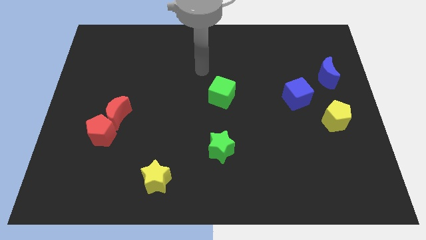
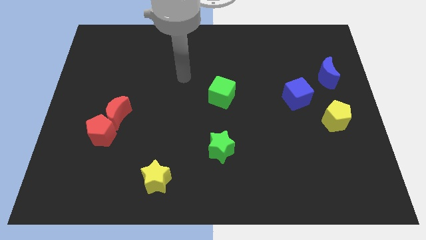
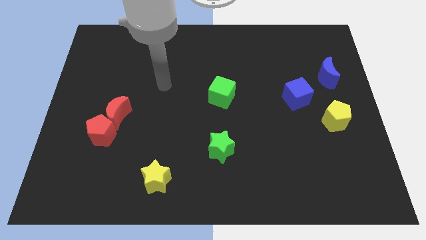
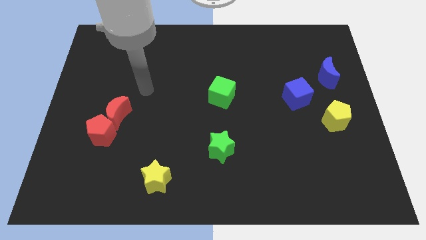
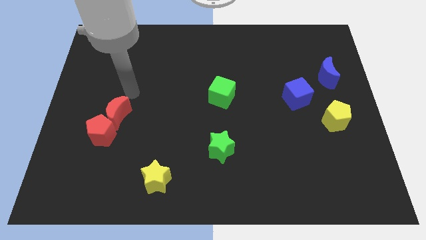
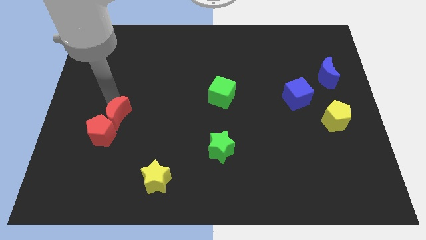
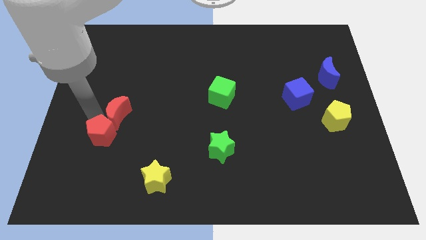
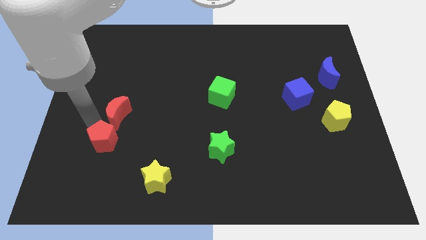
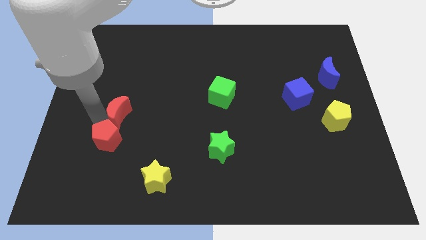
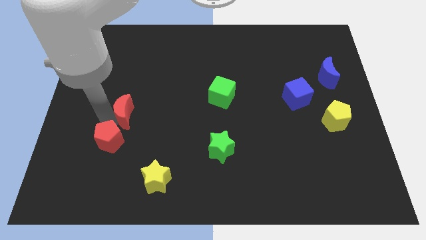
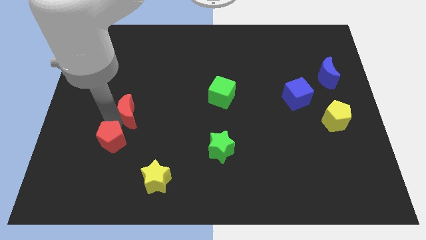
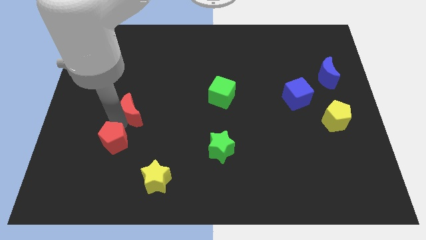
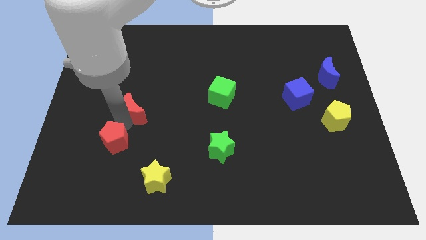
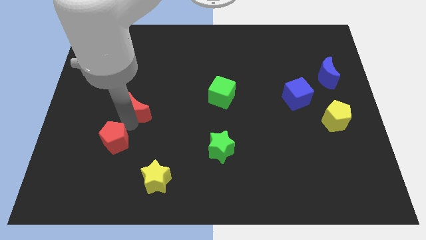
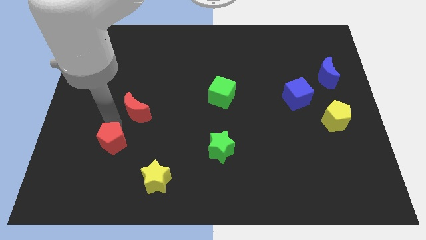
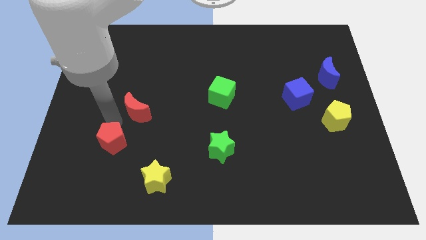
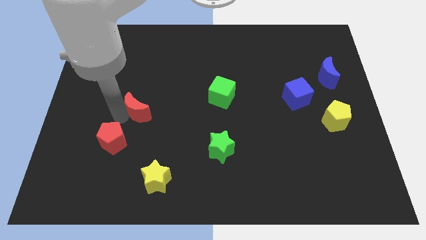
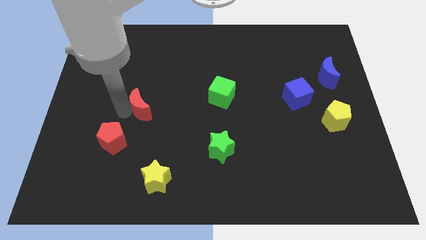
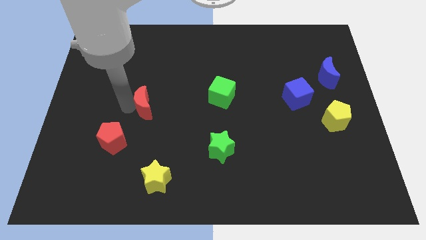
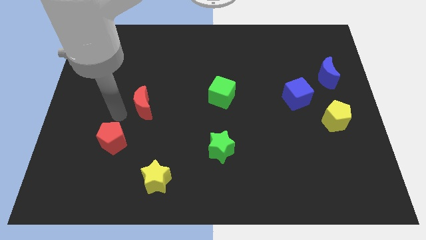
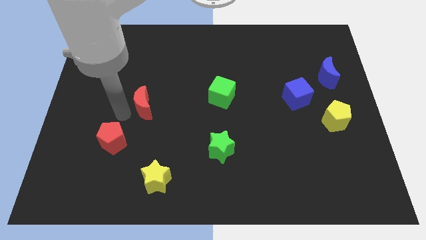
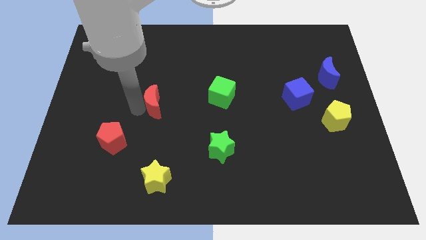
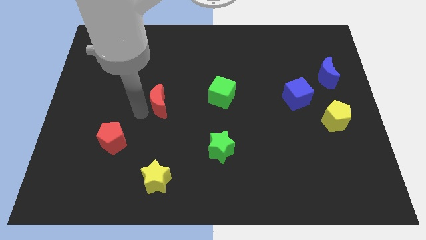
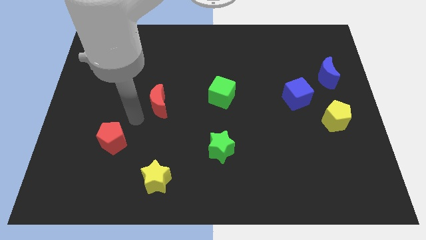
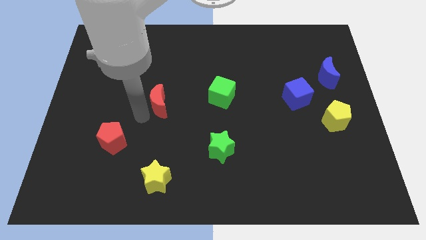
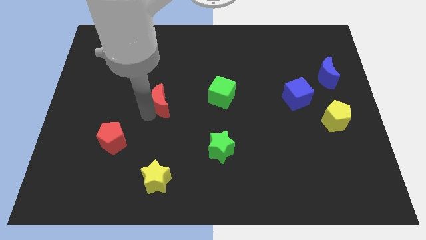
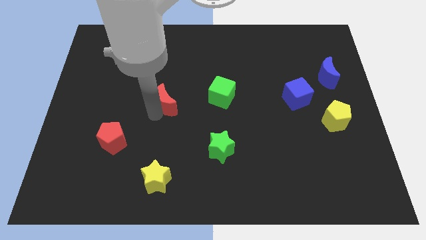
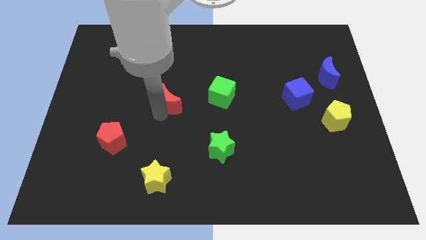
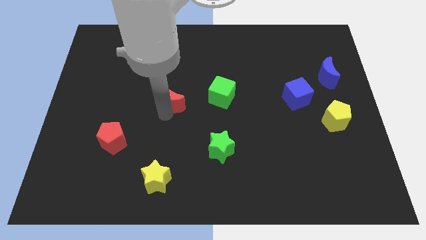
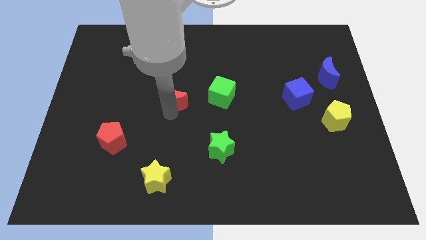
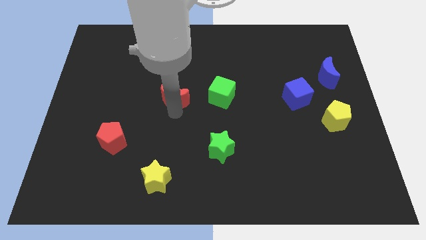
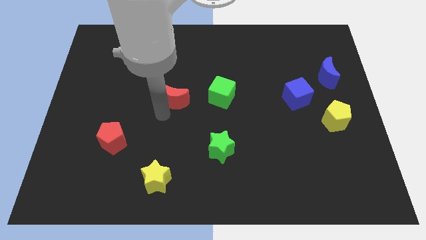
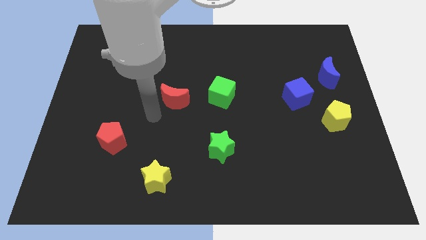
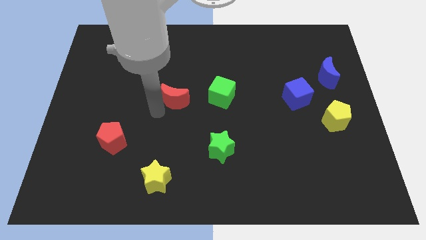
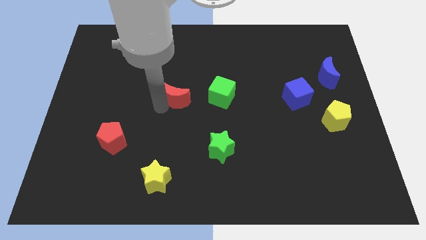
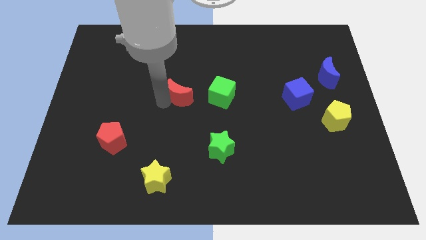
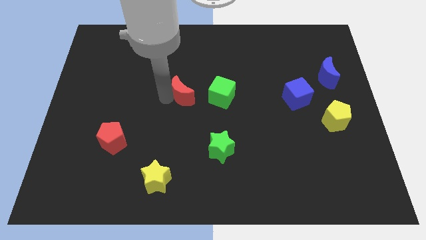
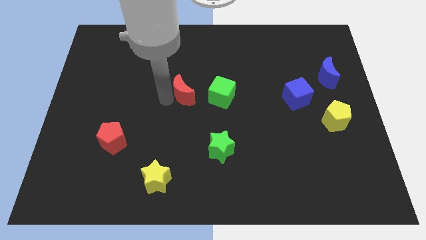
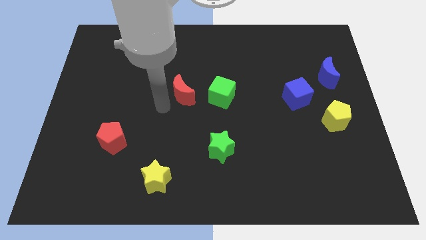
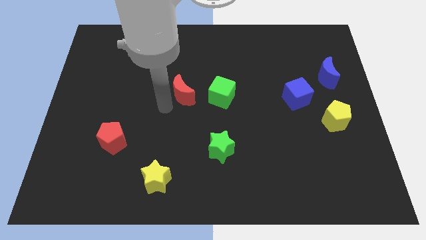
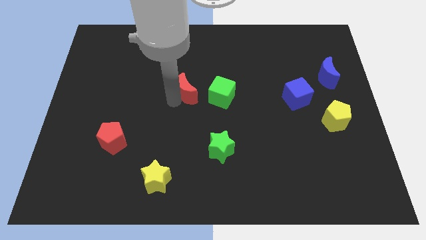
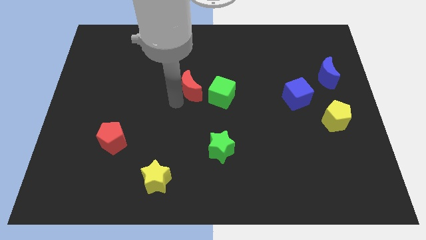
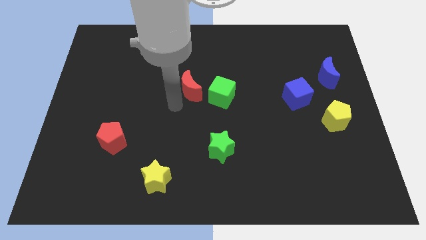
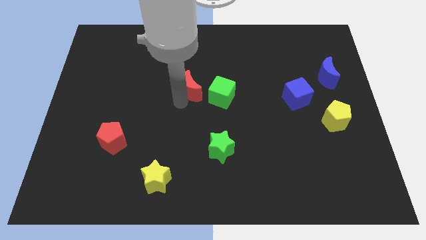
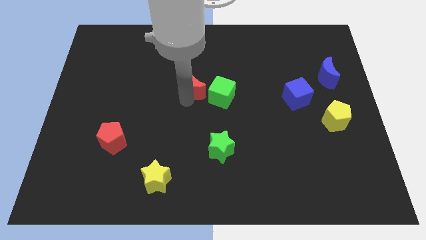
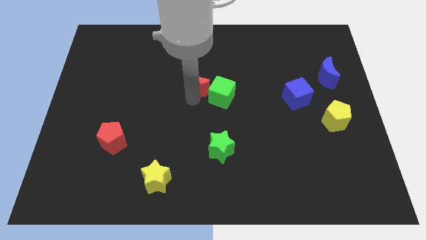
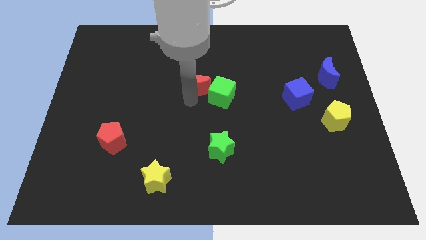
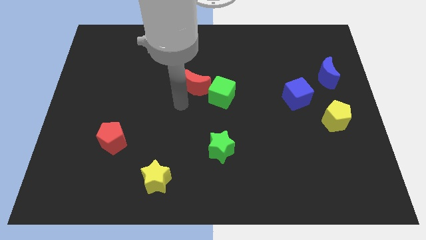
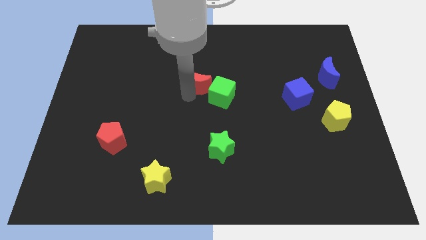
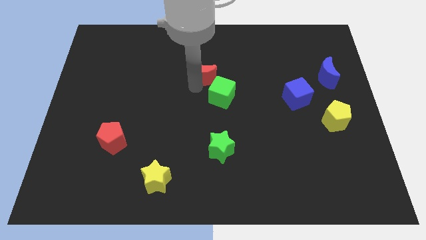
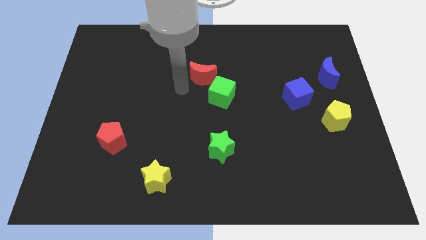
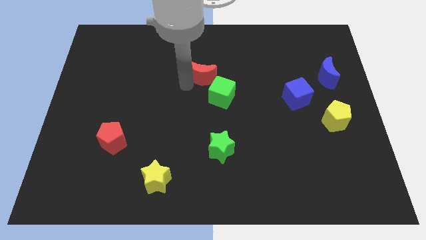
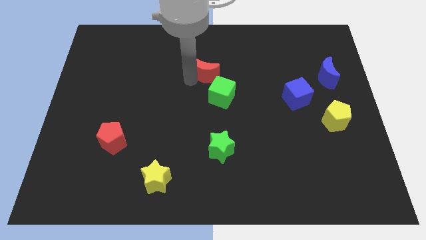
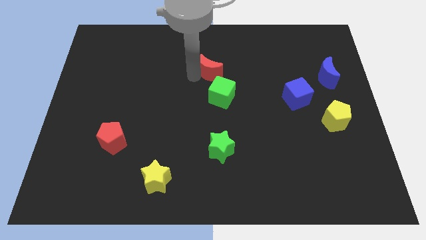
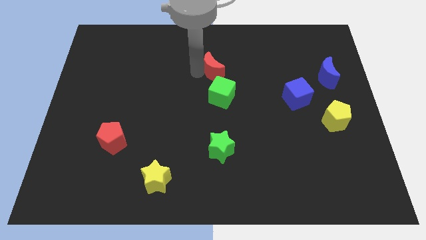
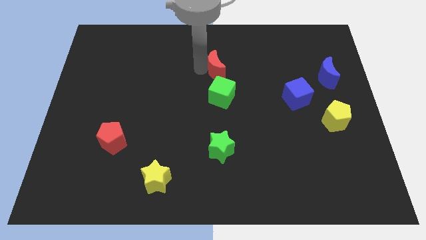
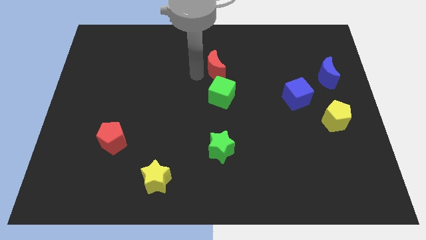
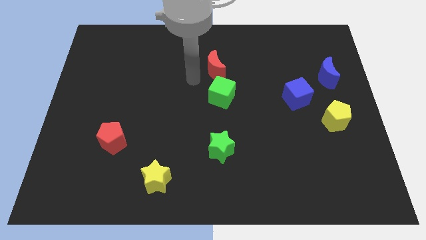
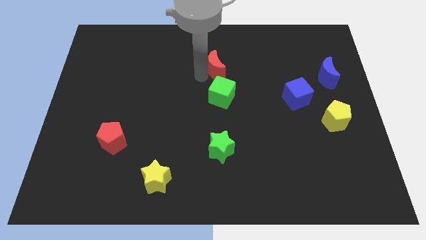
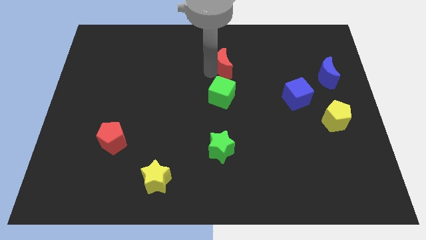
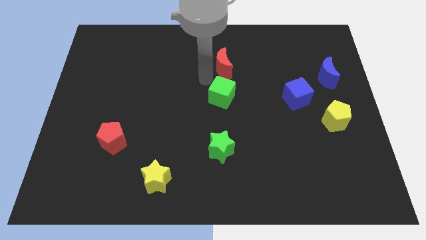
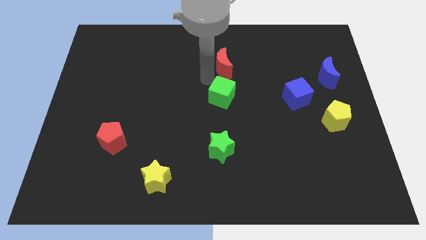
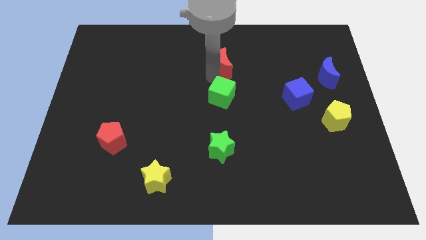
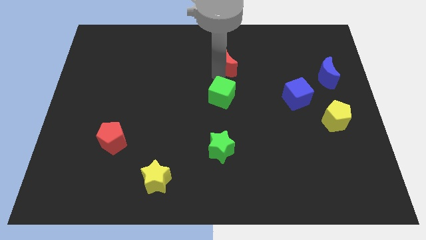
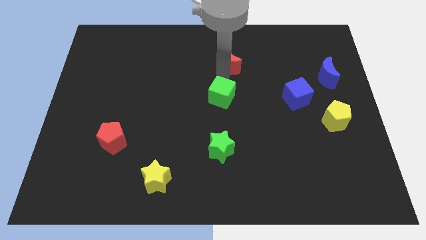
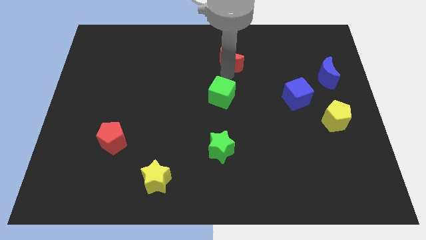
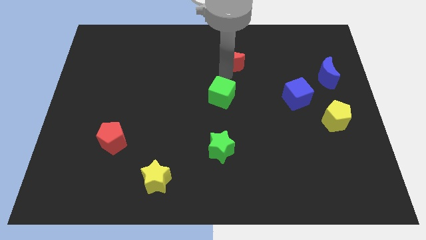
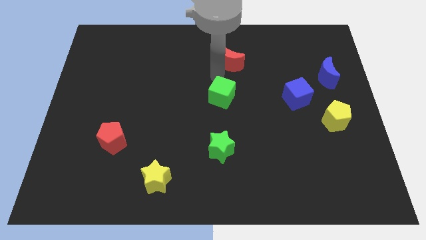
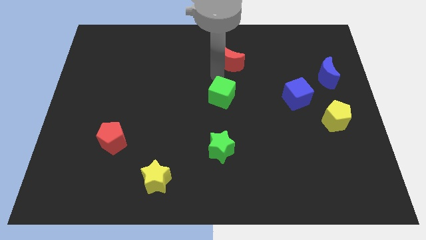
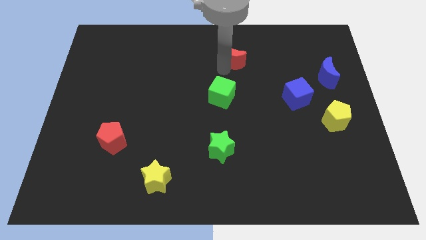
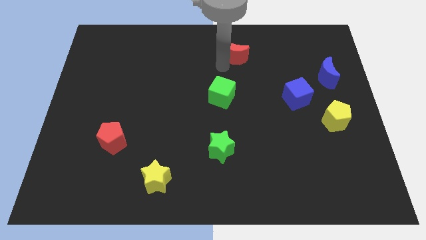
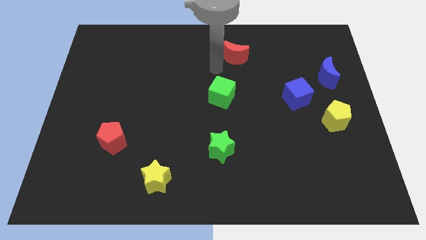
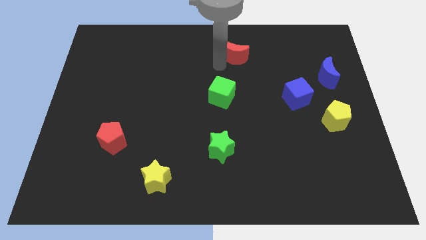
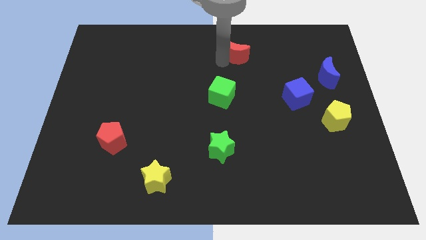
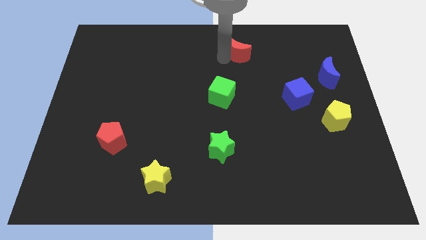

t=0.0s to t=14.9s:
slide the red moon to the top
